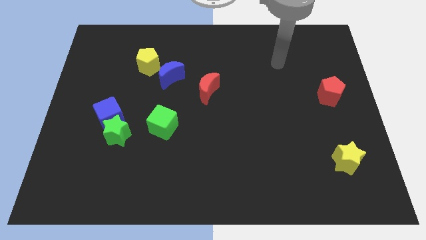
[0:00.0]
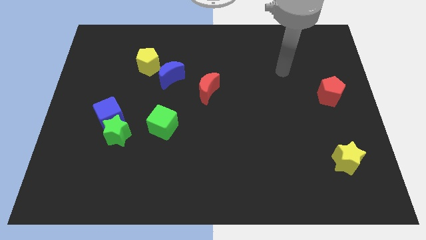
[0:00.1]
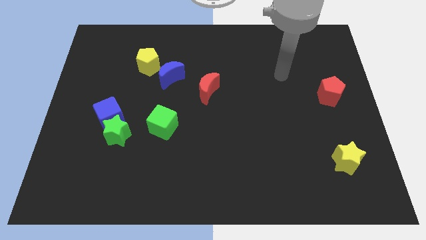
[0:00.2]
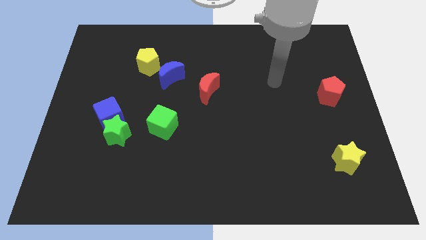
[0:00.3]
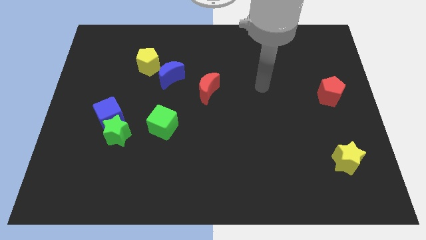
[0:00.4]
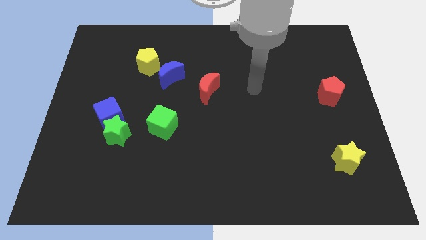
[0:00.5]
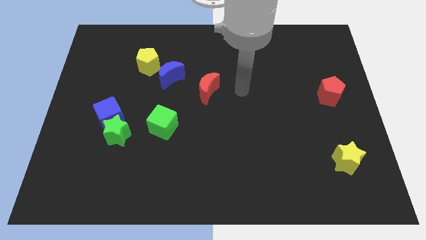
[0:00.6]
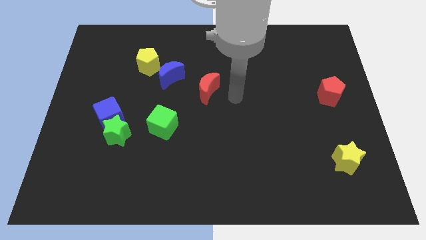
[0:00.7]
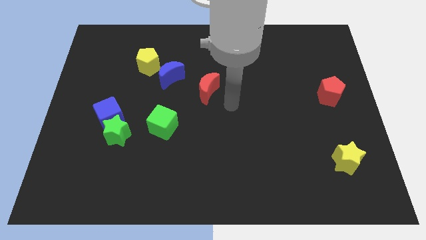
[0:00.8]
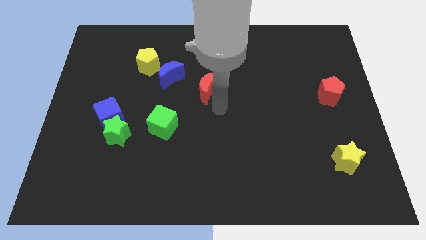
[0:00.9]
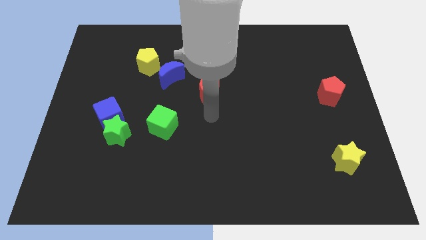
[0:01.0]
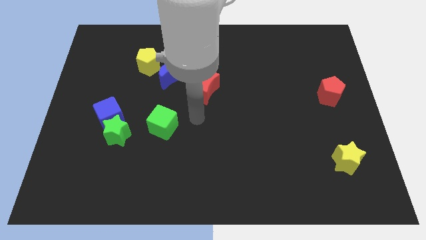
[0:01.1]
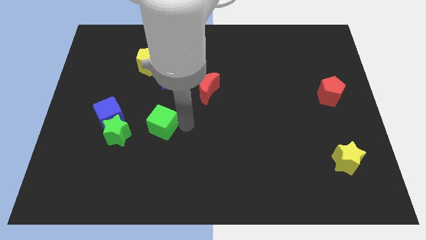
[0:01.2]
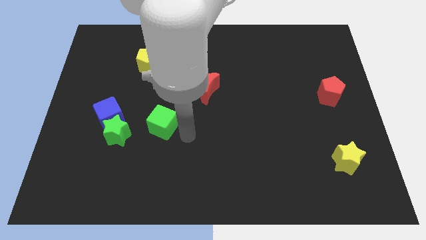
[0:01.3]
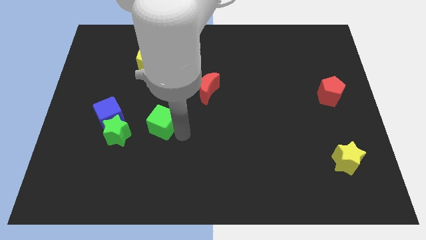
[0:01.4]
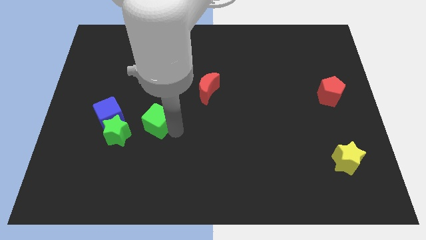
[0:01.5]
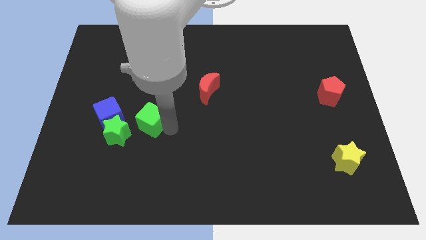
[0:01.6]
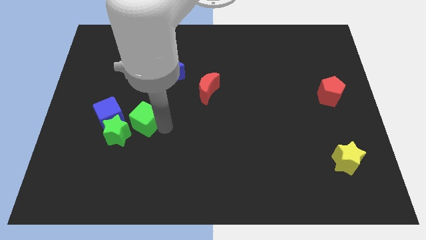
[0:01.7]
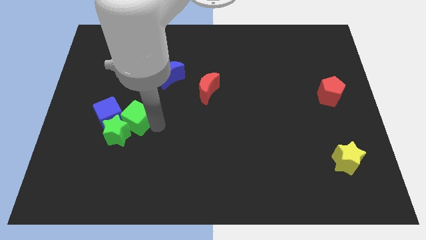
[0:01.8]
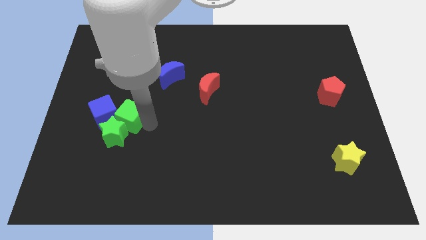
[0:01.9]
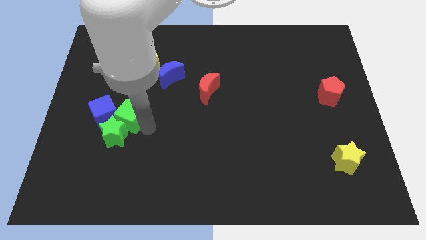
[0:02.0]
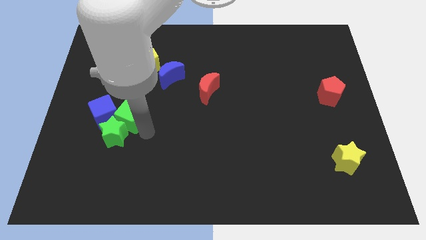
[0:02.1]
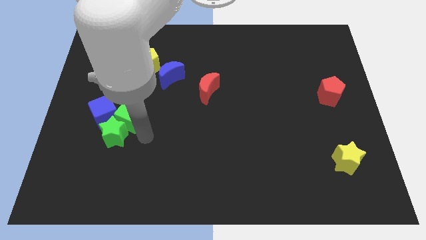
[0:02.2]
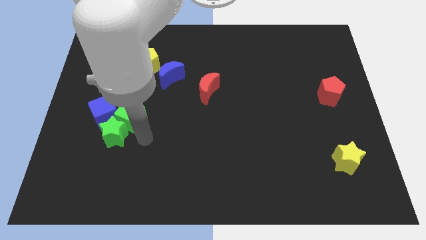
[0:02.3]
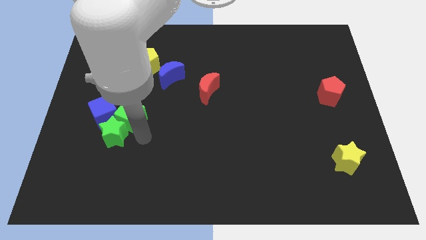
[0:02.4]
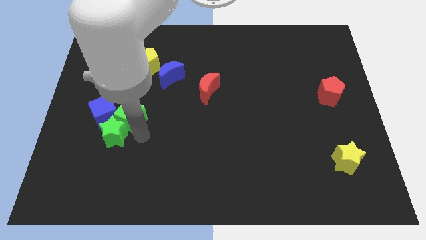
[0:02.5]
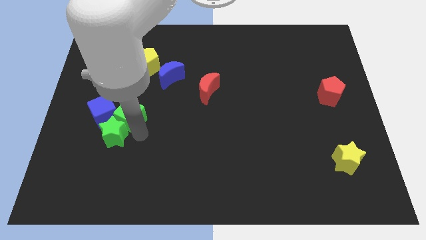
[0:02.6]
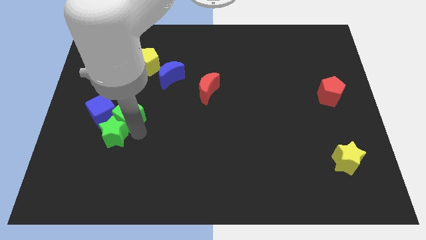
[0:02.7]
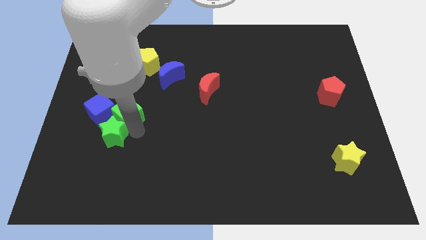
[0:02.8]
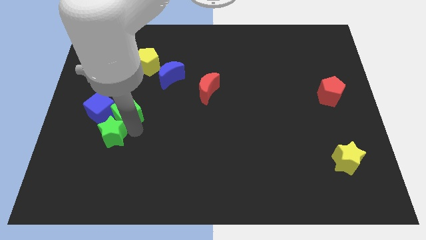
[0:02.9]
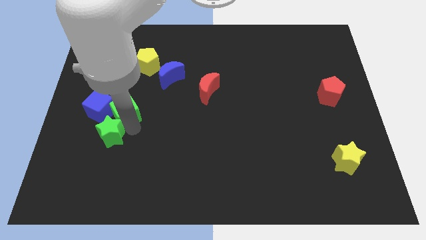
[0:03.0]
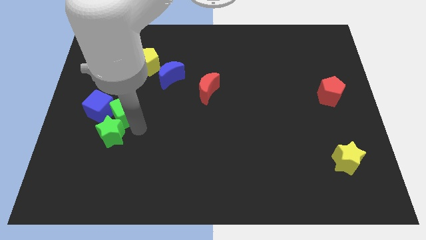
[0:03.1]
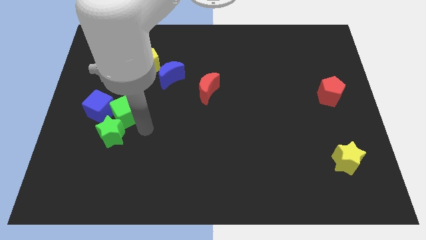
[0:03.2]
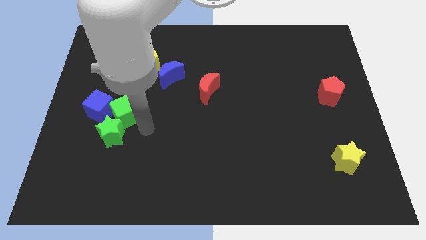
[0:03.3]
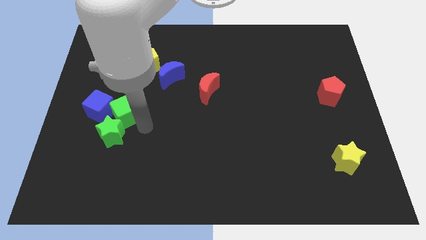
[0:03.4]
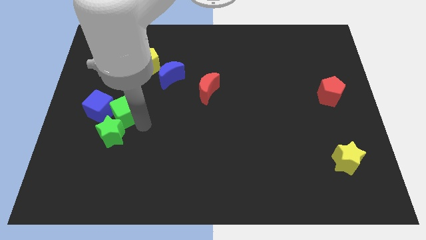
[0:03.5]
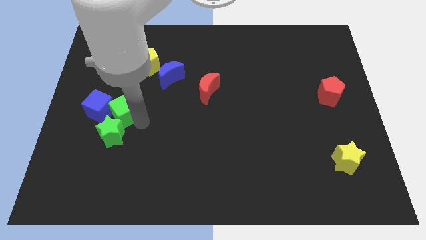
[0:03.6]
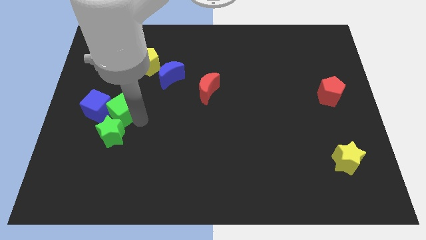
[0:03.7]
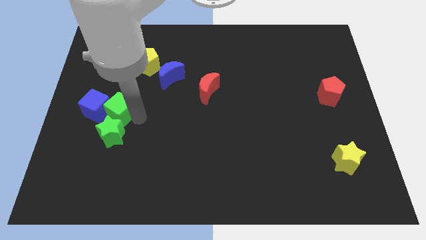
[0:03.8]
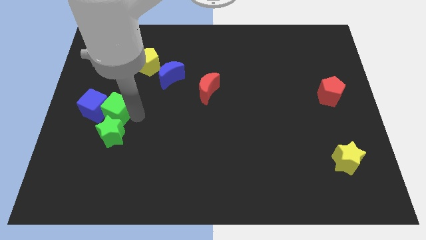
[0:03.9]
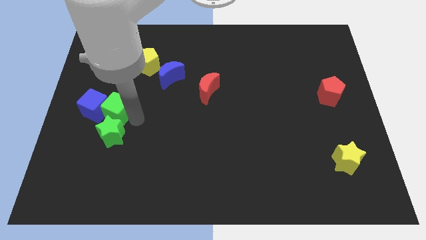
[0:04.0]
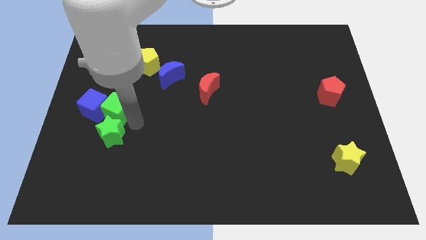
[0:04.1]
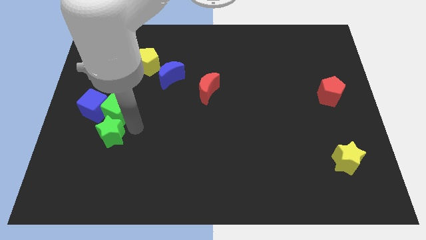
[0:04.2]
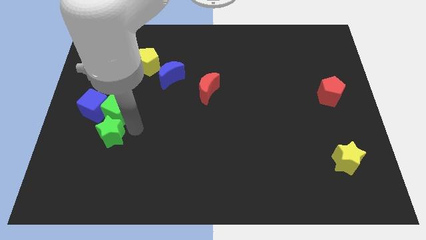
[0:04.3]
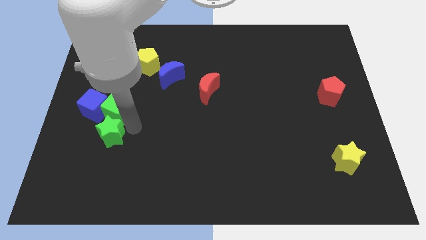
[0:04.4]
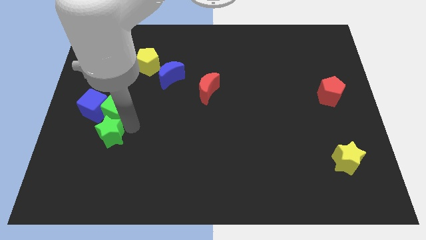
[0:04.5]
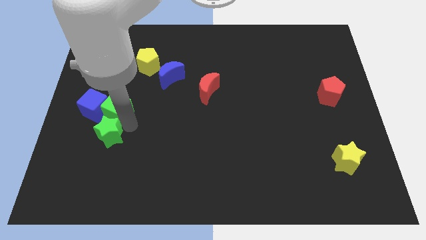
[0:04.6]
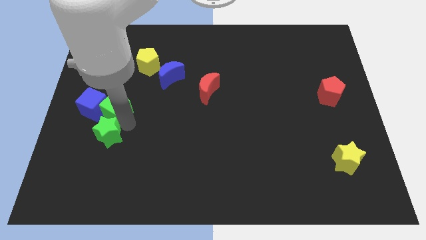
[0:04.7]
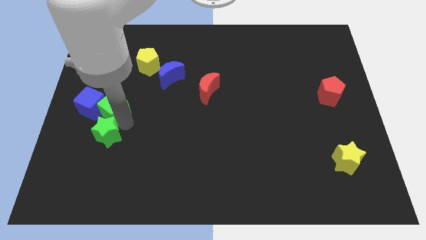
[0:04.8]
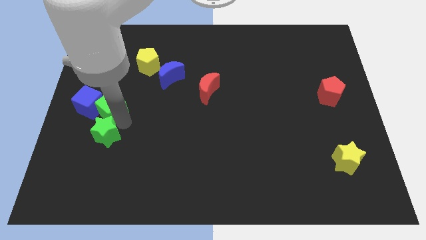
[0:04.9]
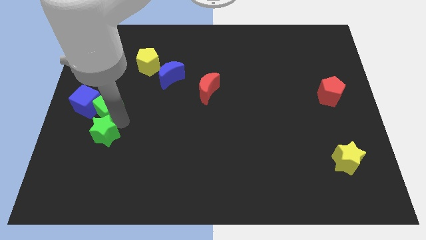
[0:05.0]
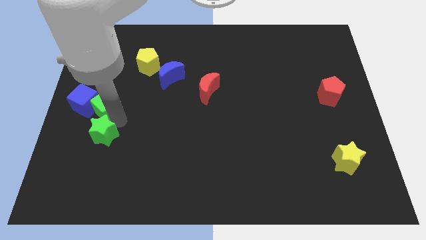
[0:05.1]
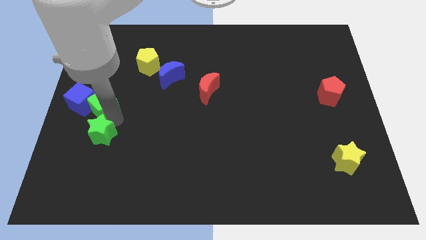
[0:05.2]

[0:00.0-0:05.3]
slide the green cube to the center left

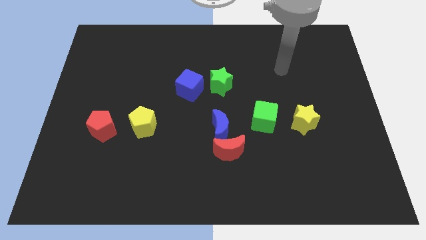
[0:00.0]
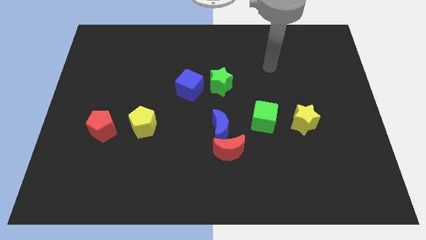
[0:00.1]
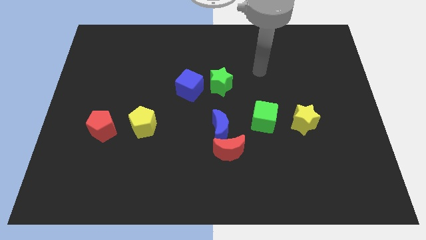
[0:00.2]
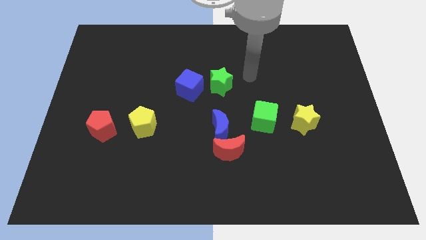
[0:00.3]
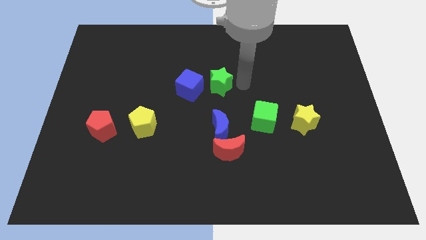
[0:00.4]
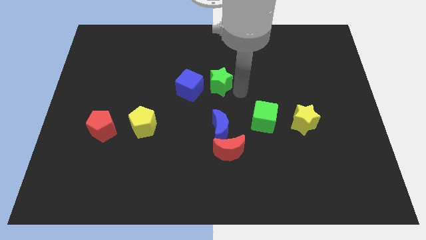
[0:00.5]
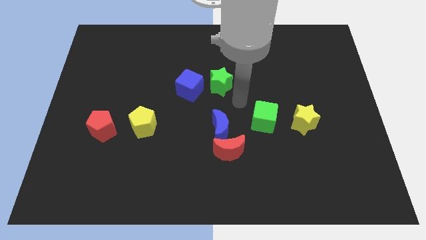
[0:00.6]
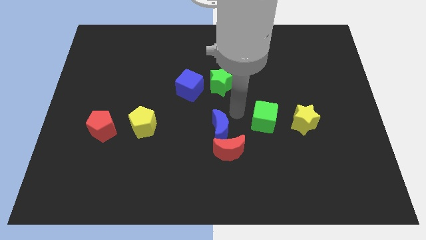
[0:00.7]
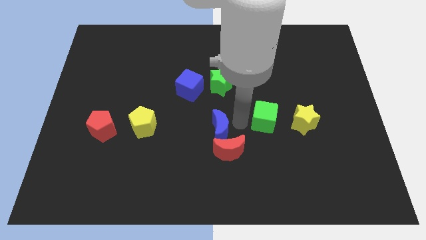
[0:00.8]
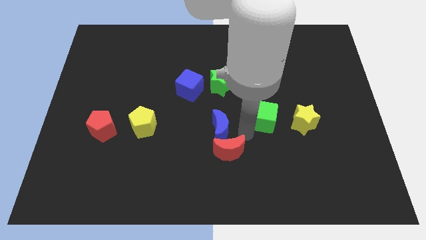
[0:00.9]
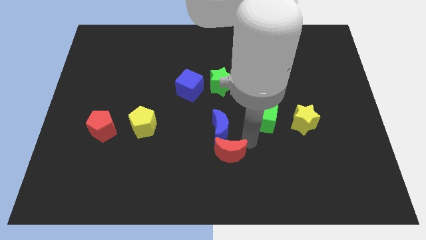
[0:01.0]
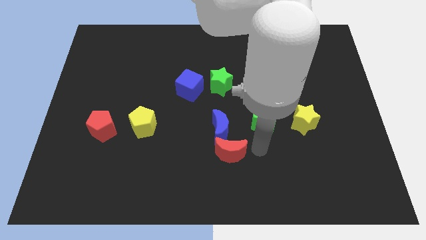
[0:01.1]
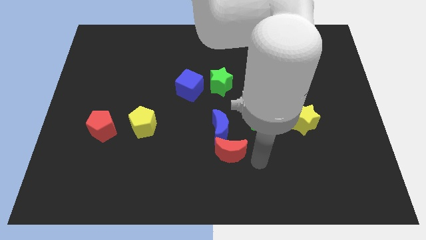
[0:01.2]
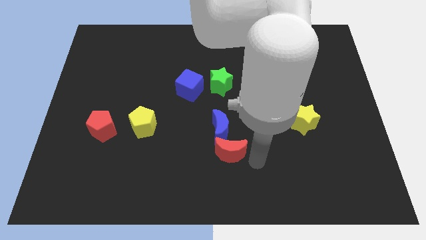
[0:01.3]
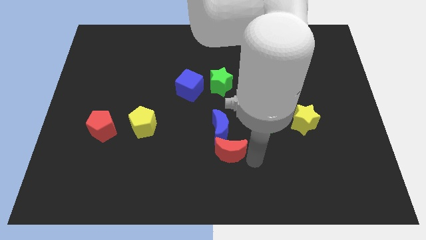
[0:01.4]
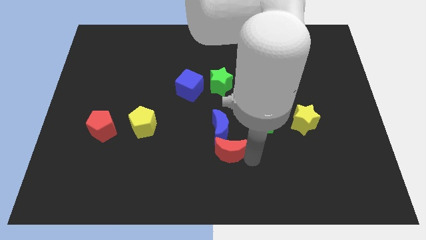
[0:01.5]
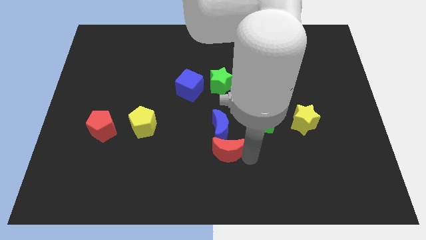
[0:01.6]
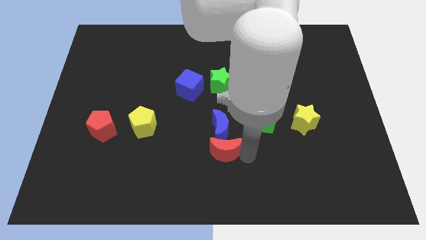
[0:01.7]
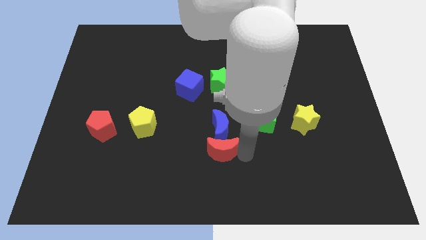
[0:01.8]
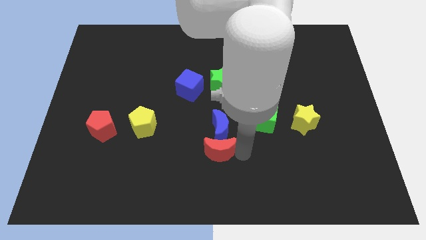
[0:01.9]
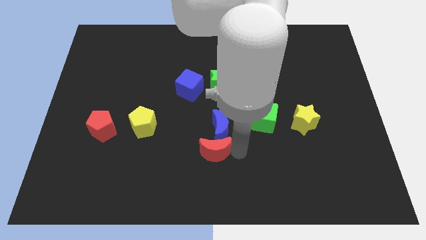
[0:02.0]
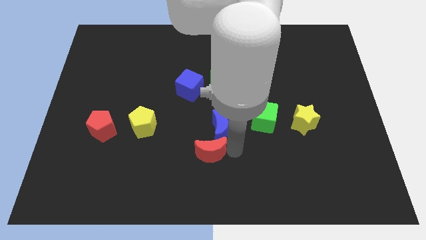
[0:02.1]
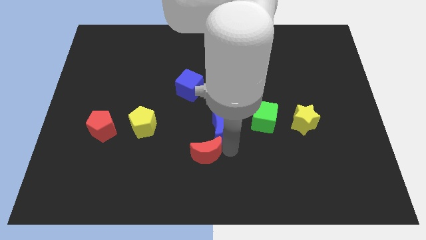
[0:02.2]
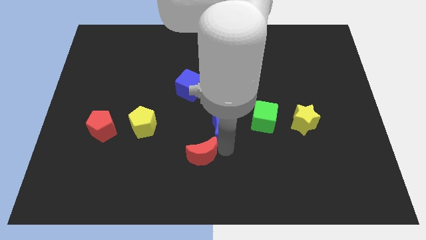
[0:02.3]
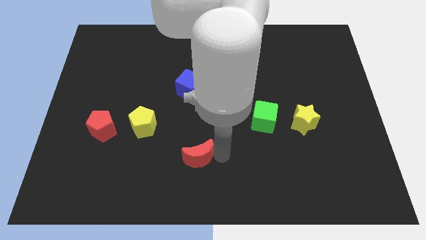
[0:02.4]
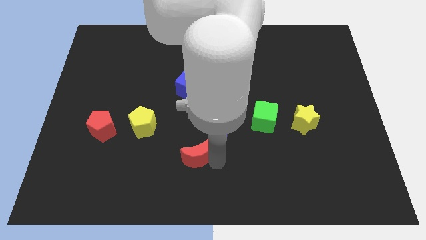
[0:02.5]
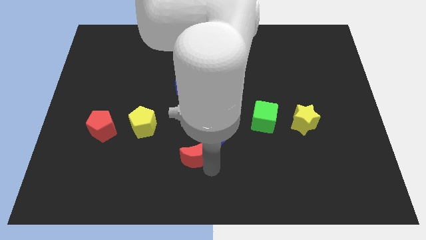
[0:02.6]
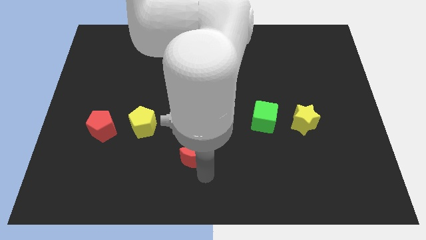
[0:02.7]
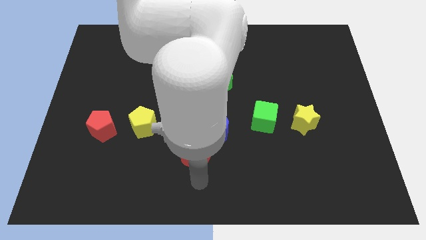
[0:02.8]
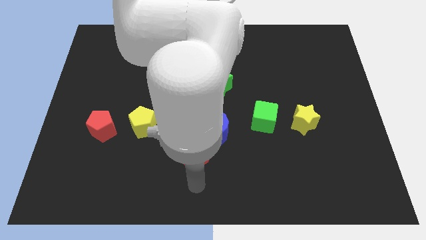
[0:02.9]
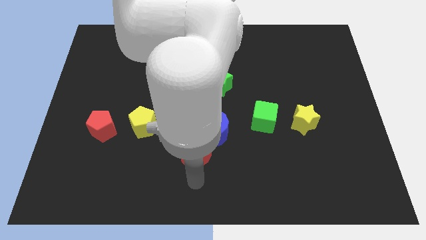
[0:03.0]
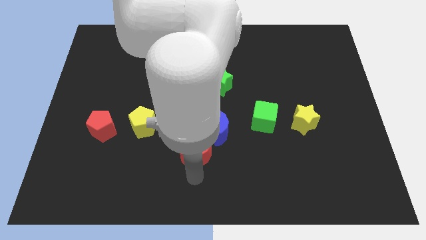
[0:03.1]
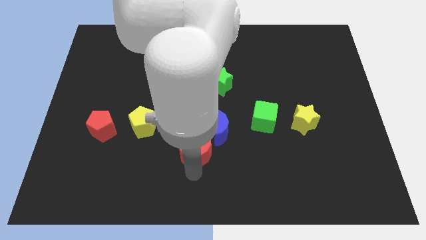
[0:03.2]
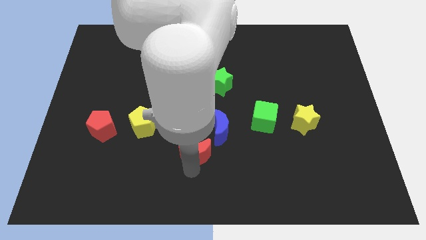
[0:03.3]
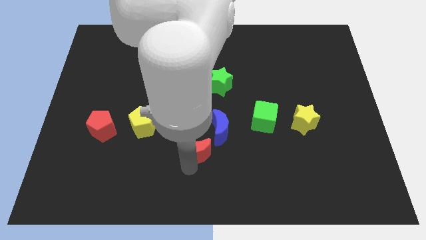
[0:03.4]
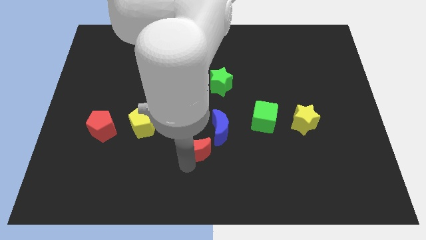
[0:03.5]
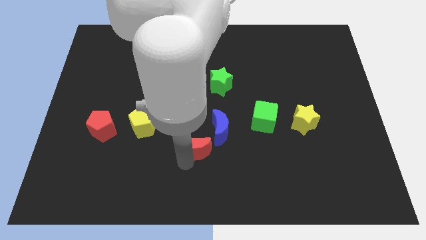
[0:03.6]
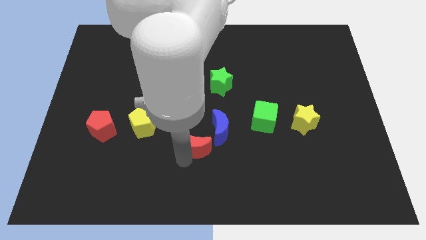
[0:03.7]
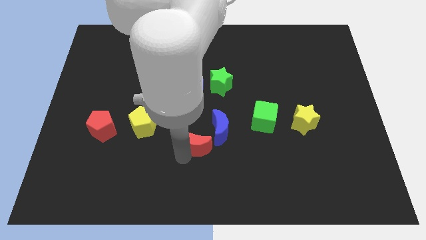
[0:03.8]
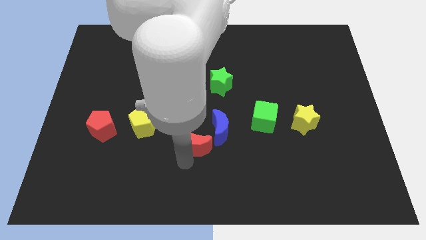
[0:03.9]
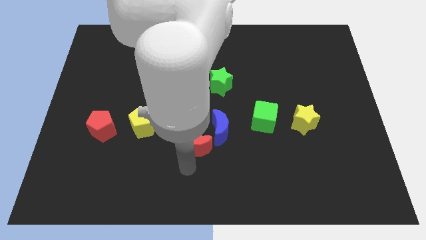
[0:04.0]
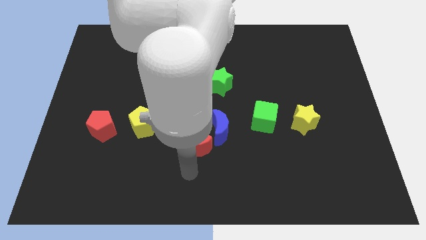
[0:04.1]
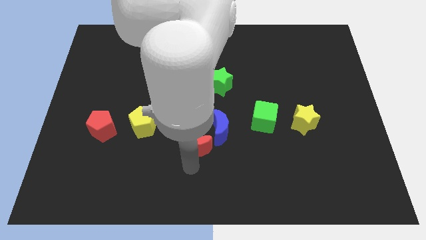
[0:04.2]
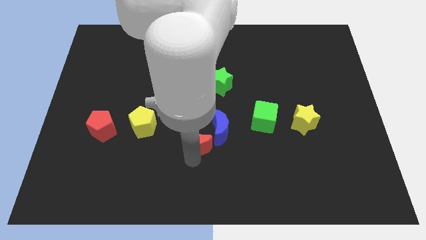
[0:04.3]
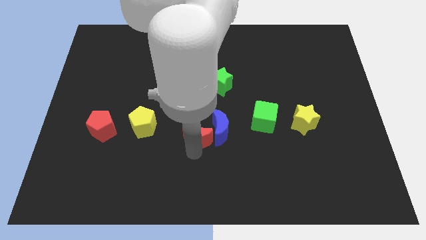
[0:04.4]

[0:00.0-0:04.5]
slide the red moon to the middle of the board
